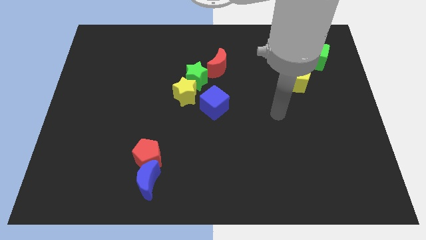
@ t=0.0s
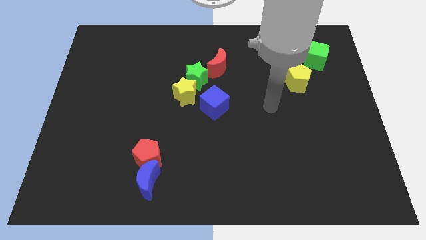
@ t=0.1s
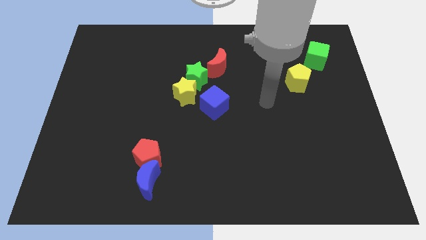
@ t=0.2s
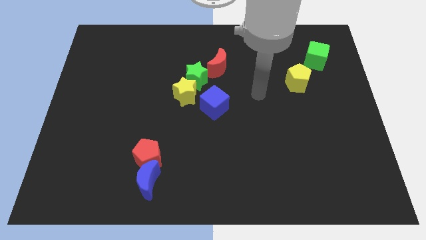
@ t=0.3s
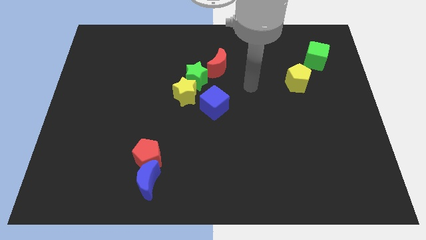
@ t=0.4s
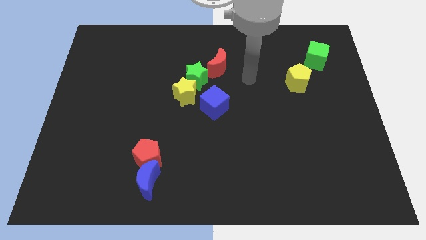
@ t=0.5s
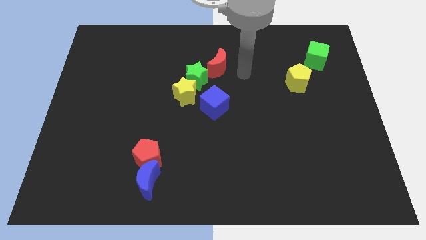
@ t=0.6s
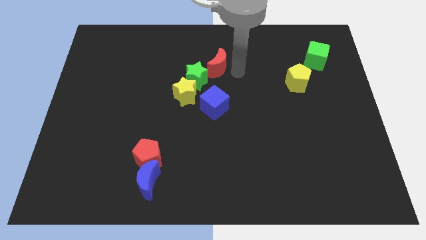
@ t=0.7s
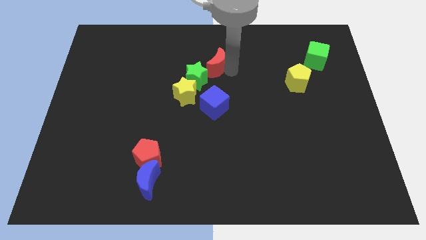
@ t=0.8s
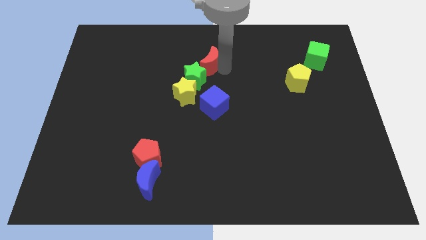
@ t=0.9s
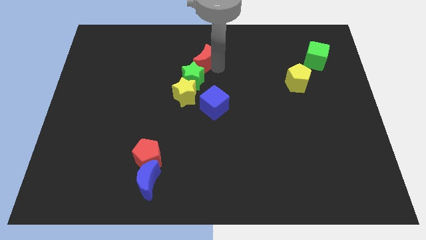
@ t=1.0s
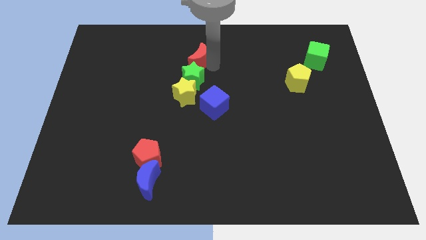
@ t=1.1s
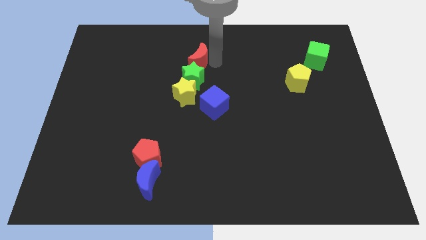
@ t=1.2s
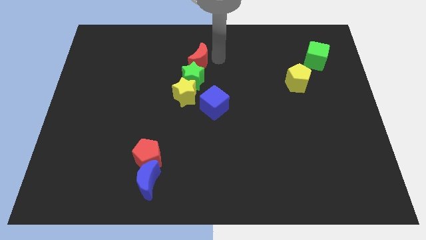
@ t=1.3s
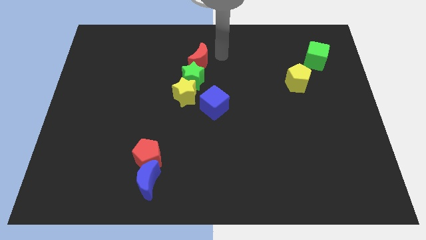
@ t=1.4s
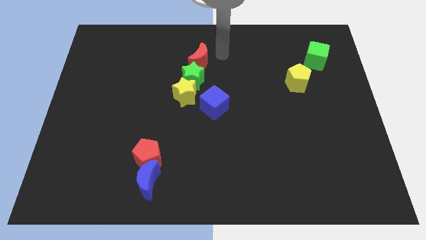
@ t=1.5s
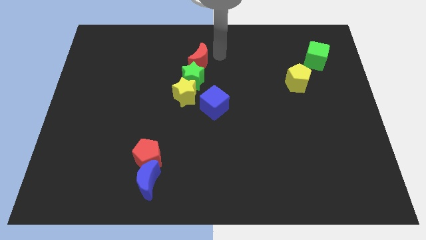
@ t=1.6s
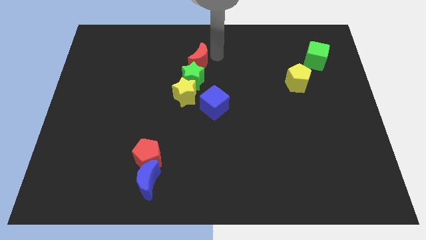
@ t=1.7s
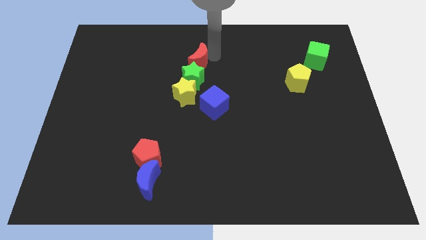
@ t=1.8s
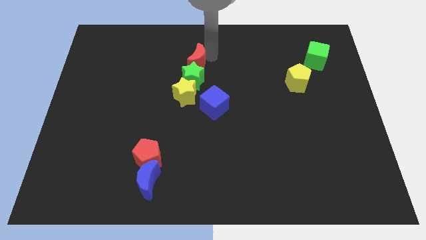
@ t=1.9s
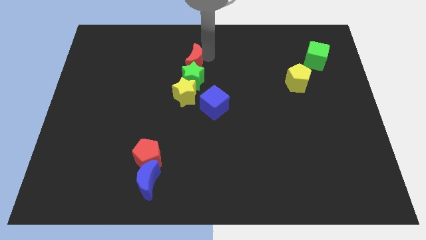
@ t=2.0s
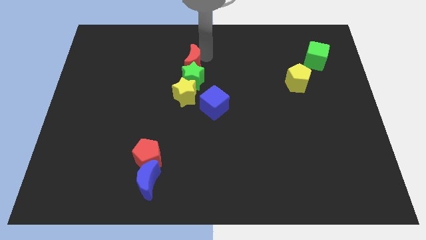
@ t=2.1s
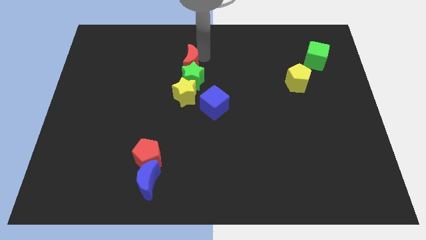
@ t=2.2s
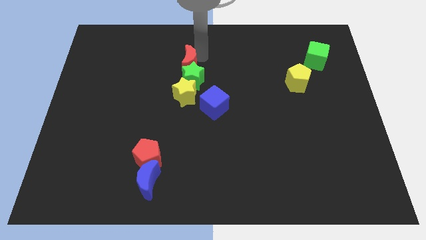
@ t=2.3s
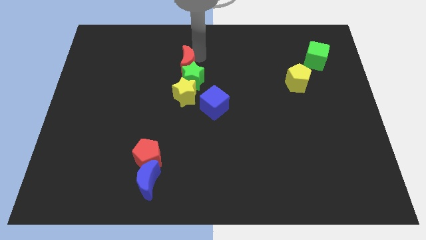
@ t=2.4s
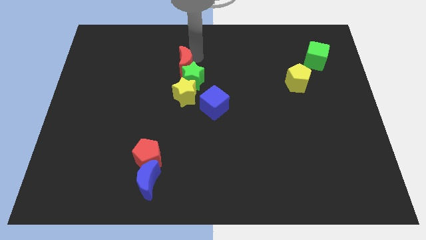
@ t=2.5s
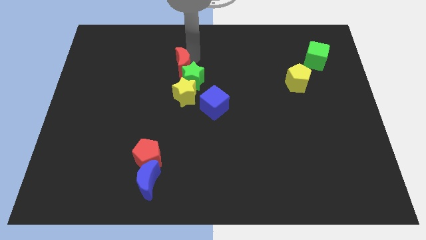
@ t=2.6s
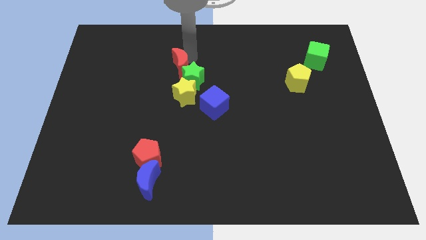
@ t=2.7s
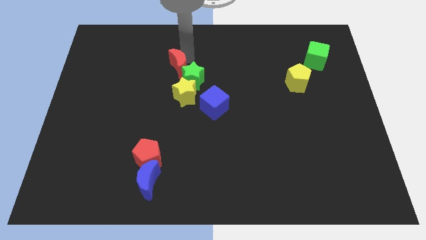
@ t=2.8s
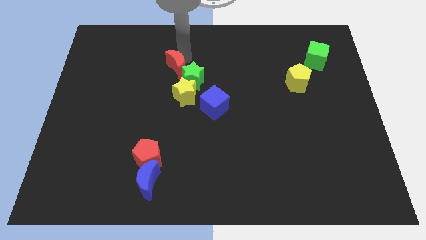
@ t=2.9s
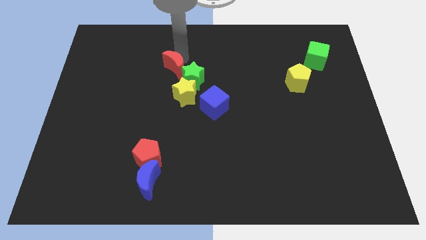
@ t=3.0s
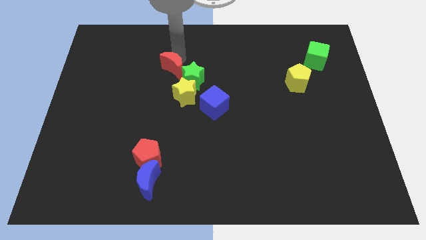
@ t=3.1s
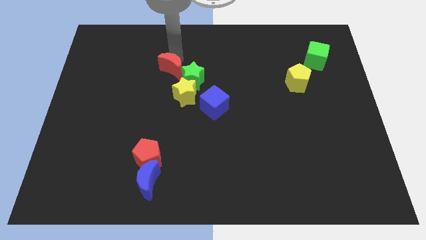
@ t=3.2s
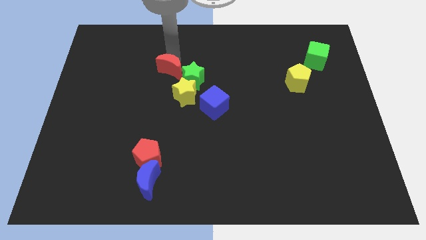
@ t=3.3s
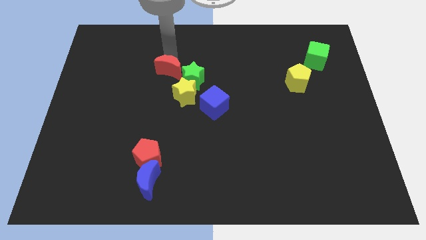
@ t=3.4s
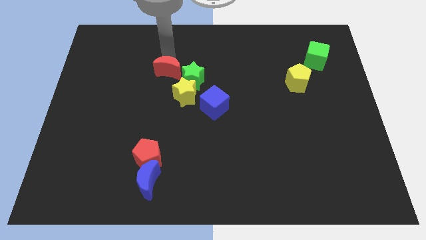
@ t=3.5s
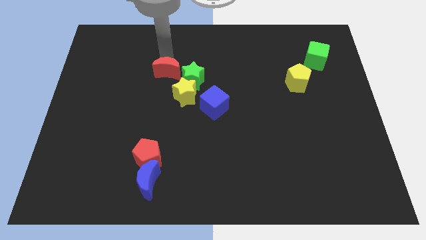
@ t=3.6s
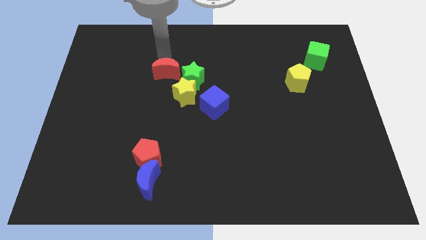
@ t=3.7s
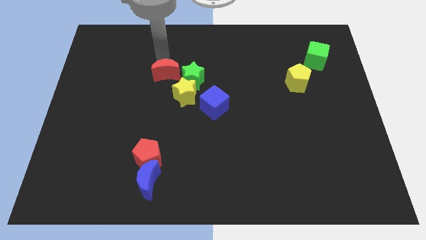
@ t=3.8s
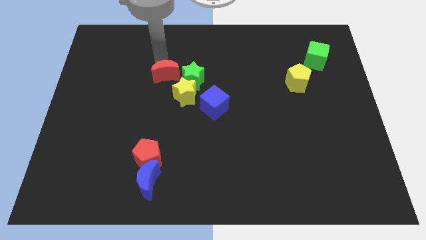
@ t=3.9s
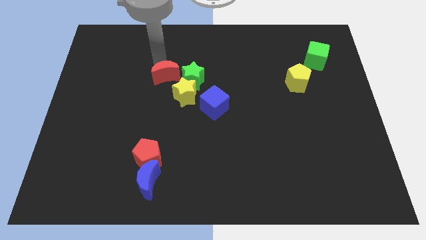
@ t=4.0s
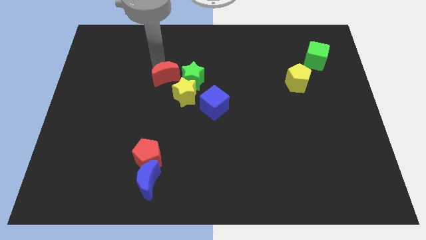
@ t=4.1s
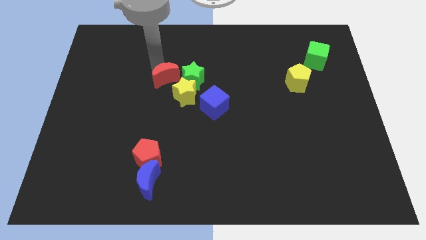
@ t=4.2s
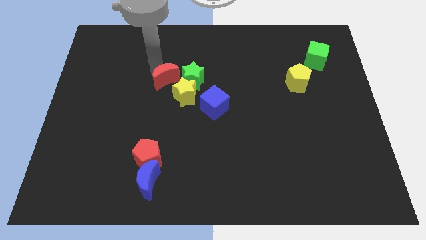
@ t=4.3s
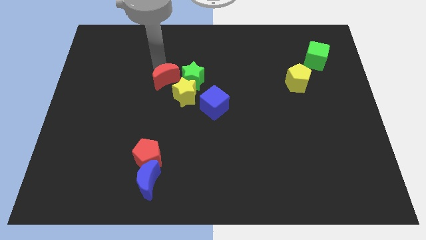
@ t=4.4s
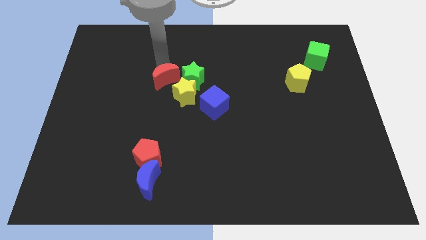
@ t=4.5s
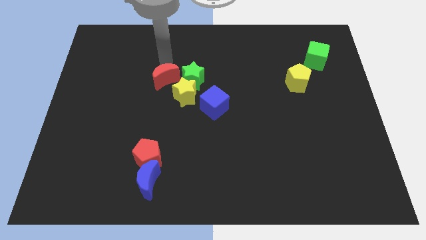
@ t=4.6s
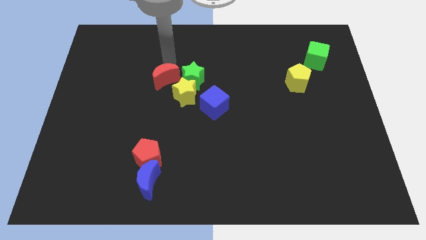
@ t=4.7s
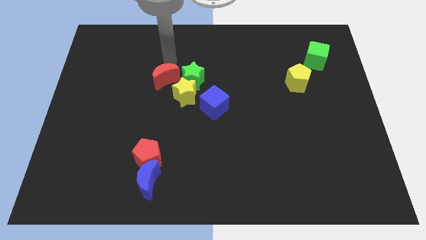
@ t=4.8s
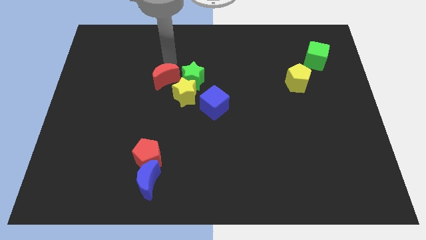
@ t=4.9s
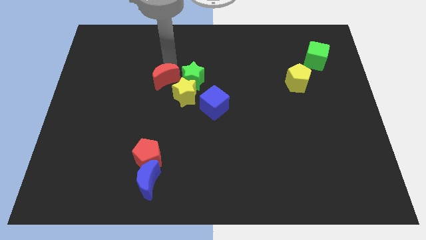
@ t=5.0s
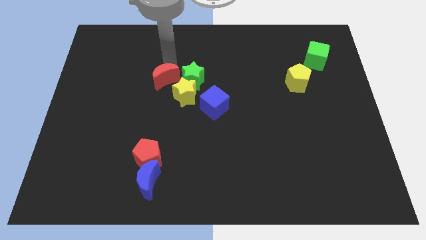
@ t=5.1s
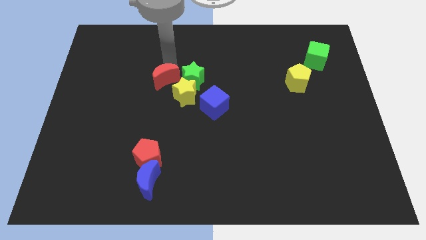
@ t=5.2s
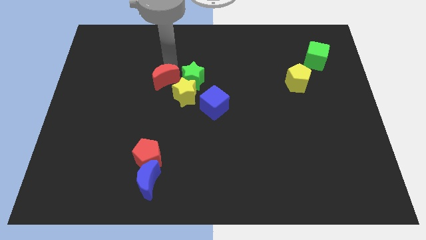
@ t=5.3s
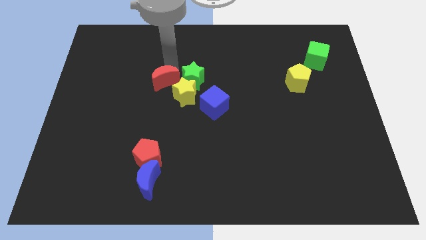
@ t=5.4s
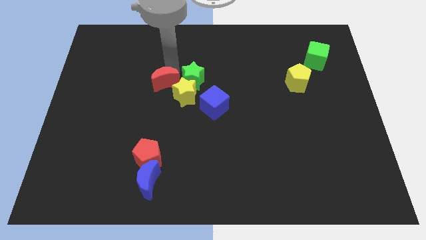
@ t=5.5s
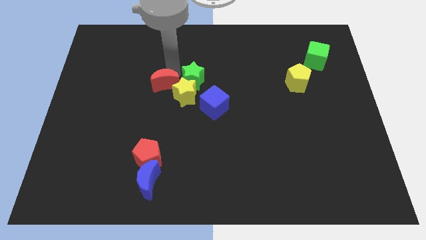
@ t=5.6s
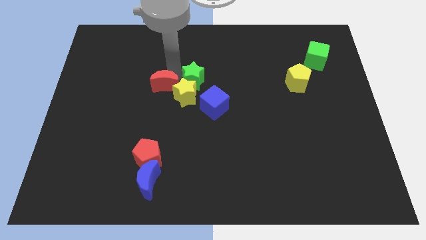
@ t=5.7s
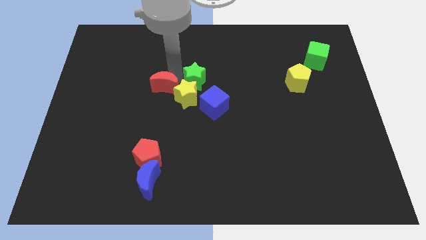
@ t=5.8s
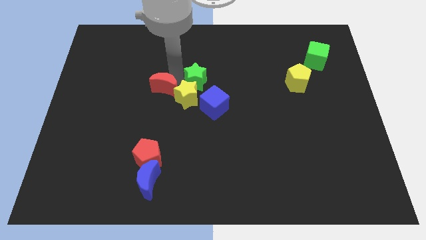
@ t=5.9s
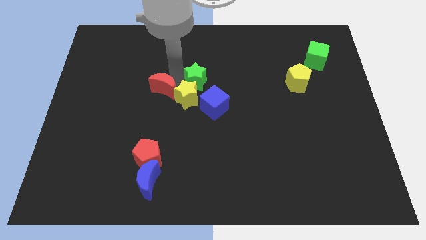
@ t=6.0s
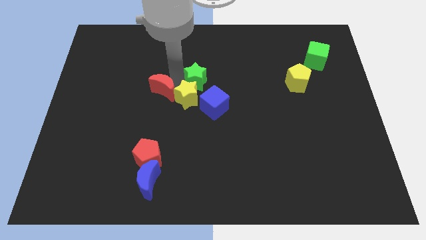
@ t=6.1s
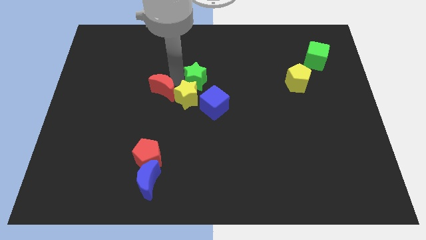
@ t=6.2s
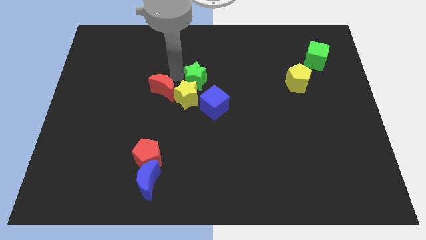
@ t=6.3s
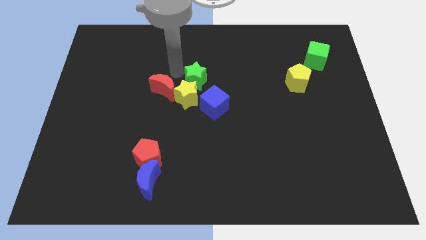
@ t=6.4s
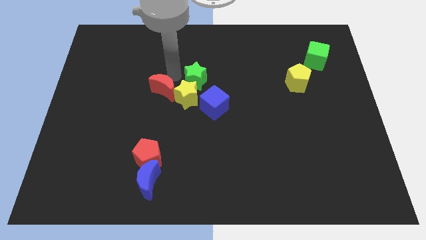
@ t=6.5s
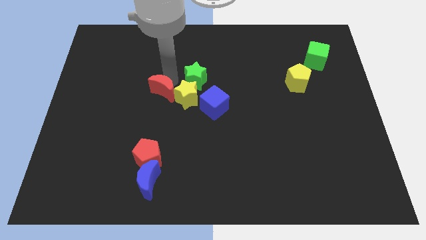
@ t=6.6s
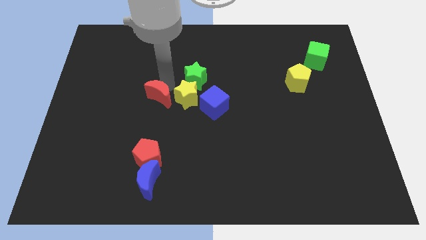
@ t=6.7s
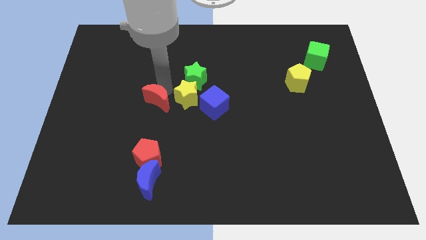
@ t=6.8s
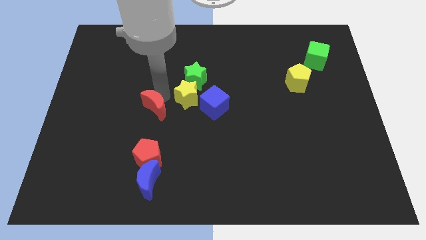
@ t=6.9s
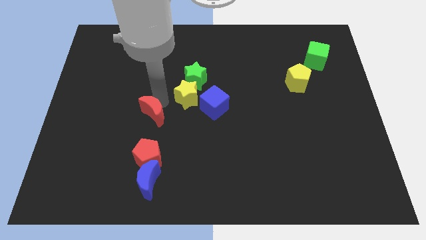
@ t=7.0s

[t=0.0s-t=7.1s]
push the red moon down and left diagonally
